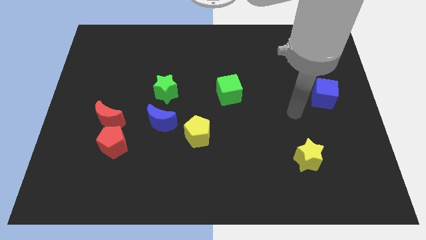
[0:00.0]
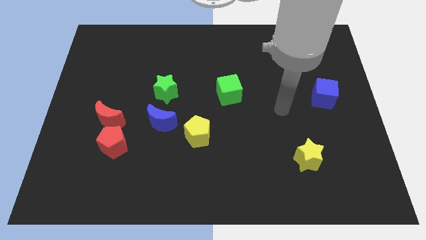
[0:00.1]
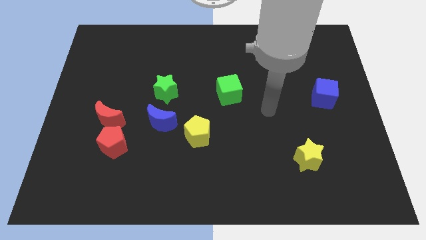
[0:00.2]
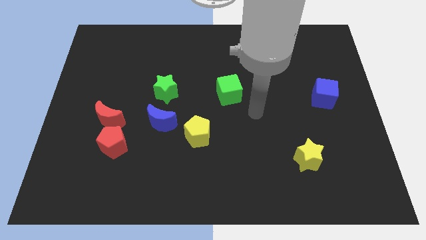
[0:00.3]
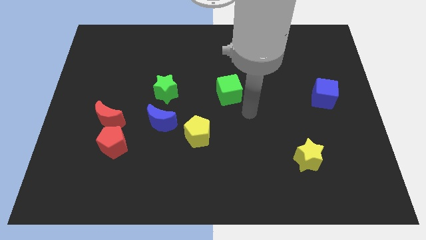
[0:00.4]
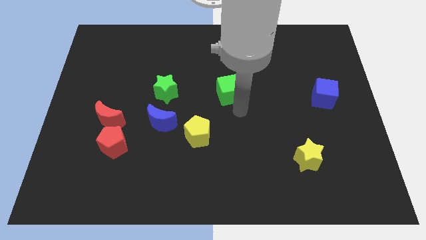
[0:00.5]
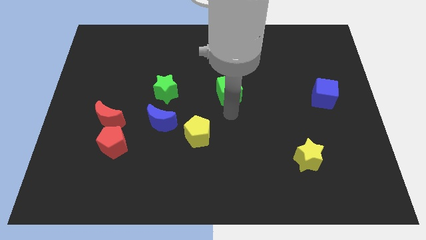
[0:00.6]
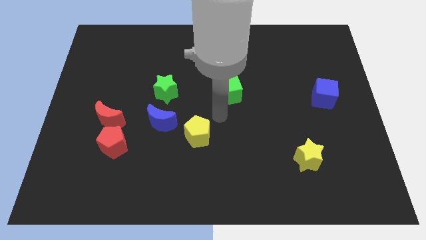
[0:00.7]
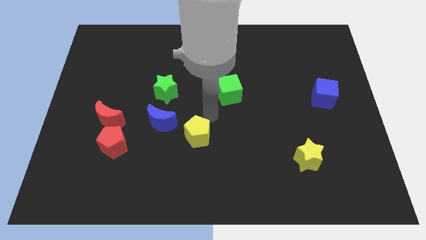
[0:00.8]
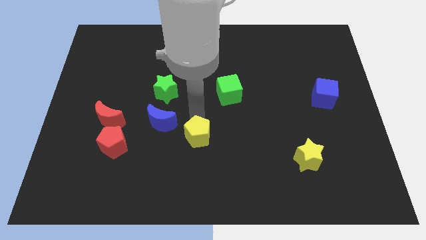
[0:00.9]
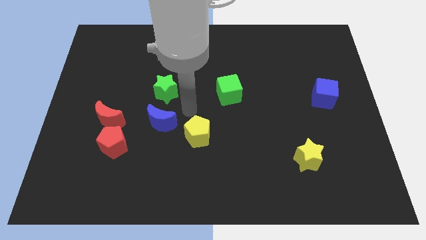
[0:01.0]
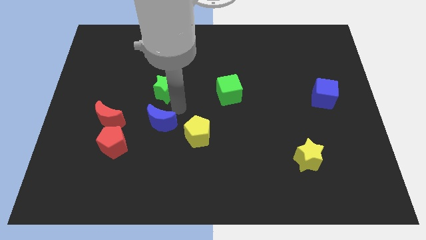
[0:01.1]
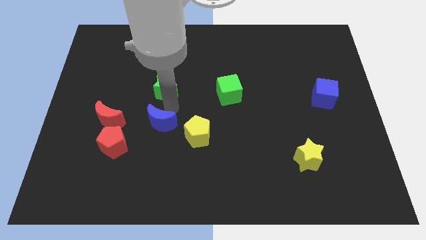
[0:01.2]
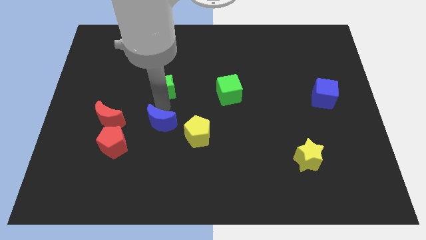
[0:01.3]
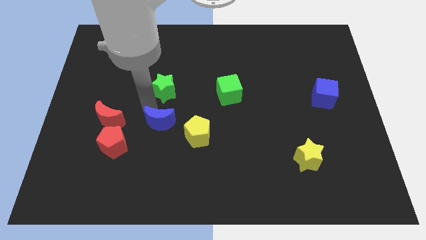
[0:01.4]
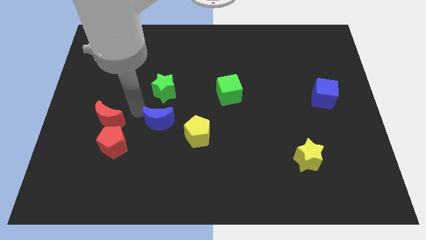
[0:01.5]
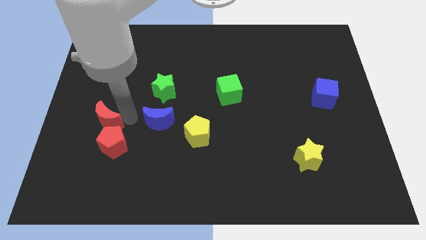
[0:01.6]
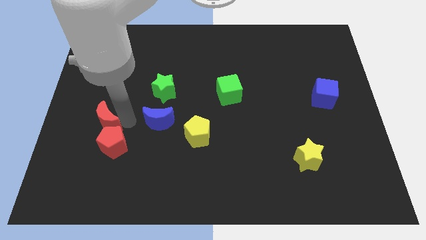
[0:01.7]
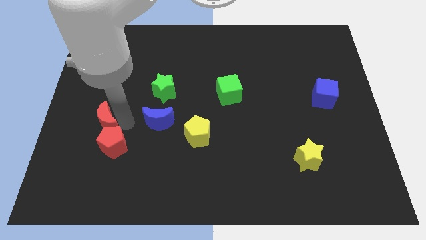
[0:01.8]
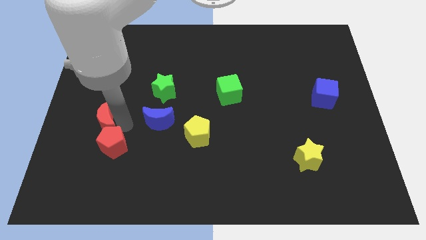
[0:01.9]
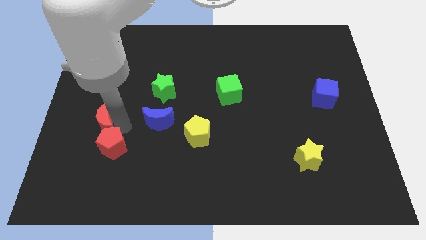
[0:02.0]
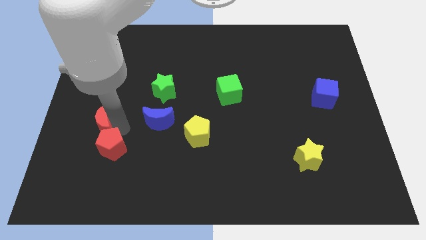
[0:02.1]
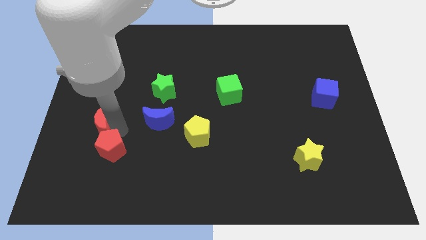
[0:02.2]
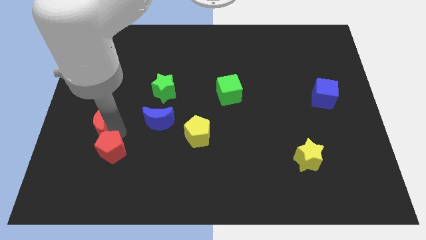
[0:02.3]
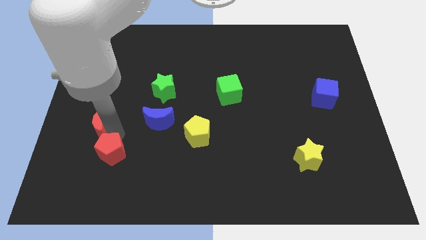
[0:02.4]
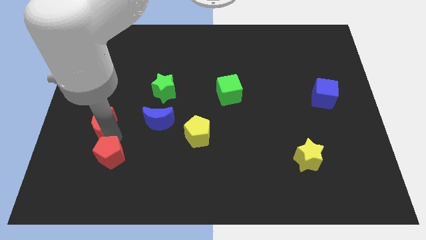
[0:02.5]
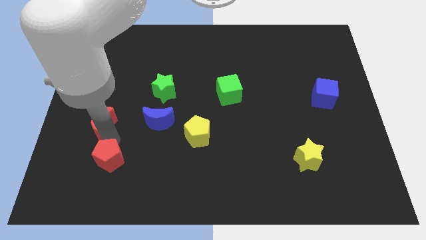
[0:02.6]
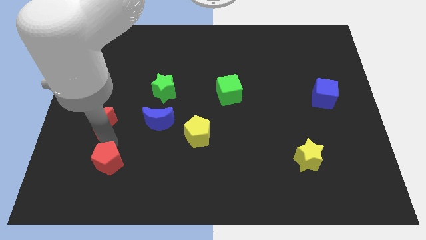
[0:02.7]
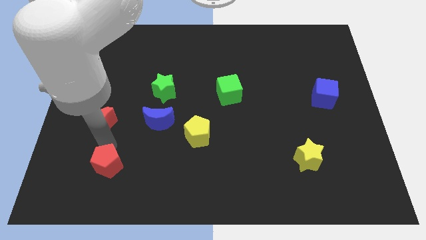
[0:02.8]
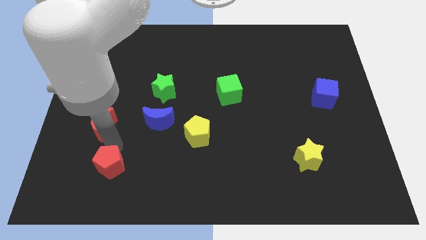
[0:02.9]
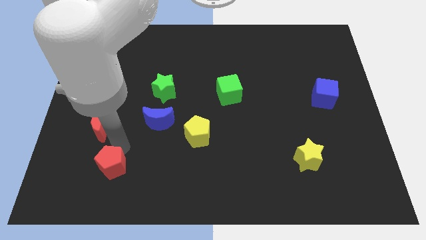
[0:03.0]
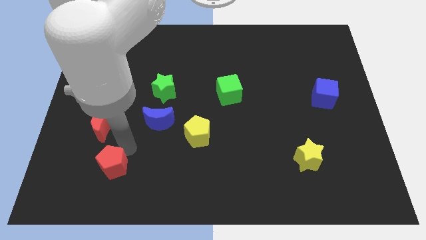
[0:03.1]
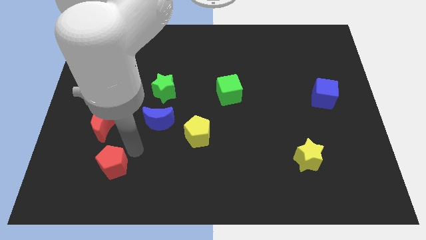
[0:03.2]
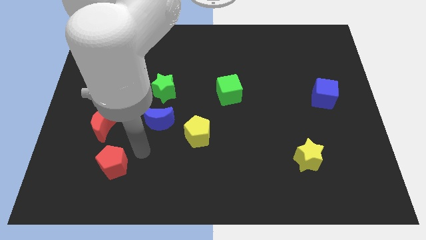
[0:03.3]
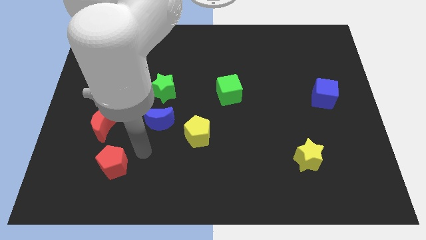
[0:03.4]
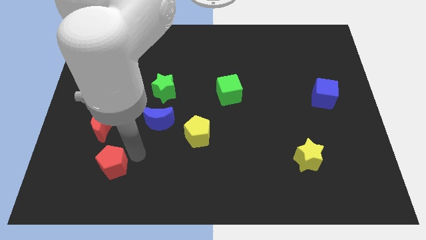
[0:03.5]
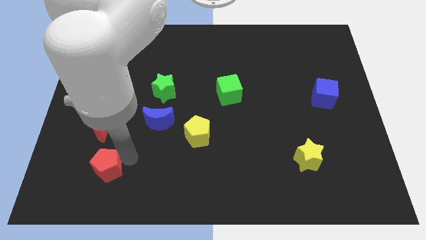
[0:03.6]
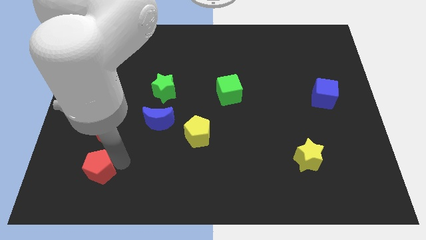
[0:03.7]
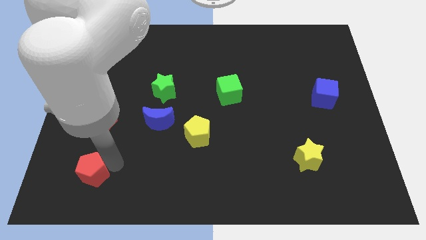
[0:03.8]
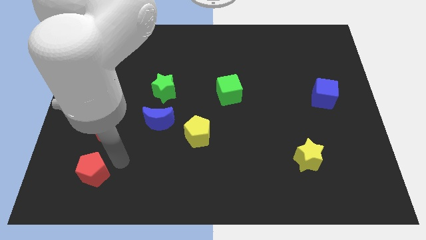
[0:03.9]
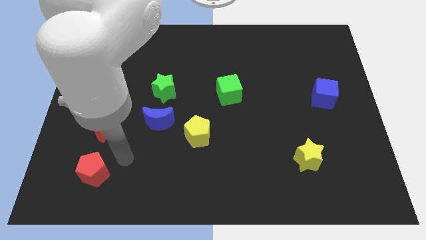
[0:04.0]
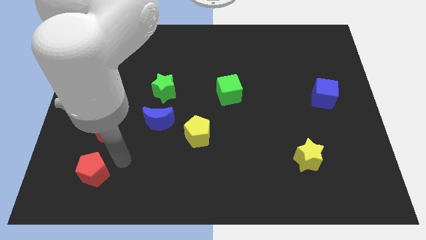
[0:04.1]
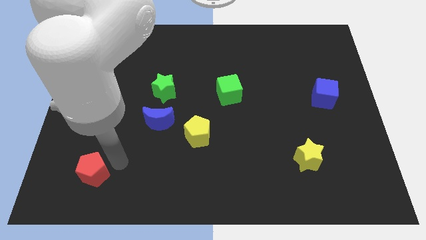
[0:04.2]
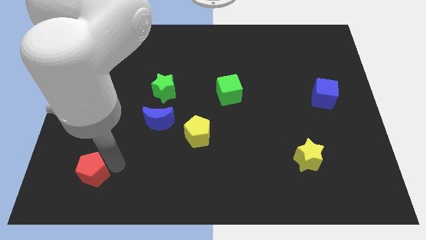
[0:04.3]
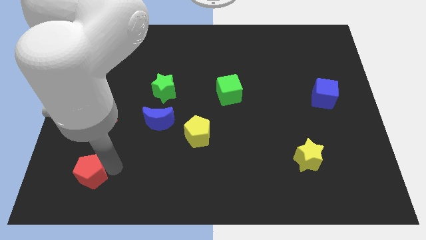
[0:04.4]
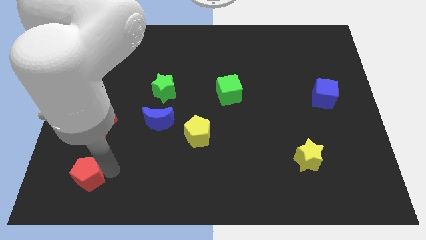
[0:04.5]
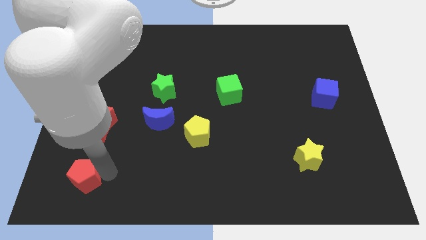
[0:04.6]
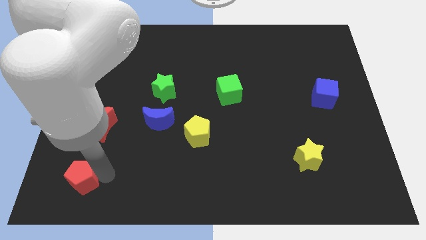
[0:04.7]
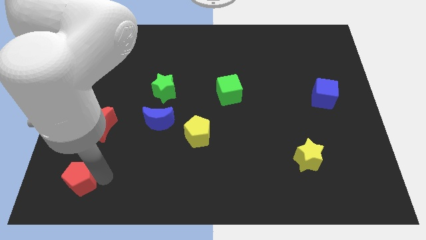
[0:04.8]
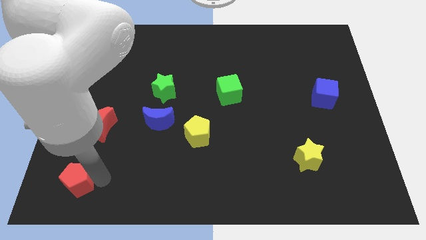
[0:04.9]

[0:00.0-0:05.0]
move the red pentagon to the lower left corner

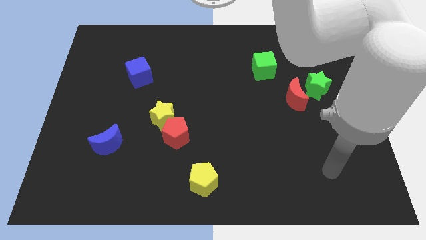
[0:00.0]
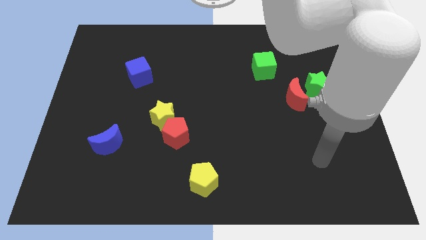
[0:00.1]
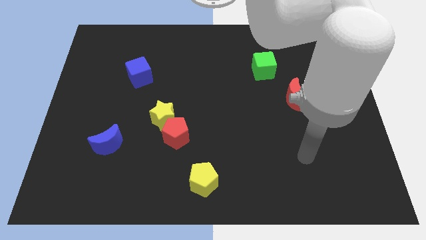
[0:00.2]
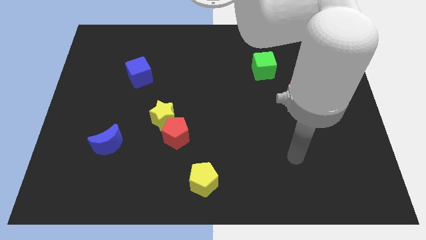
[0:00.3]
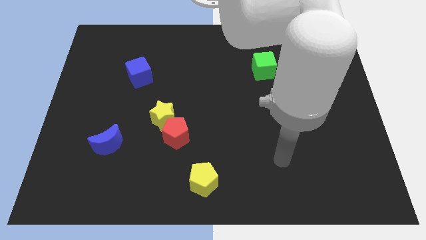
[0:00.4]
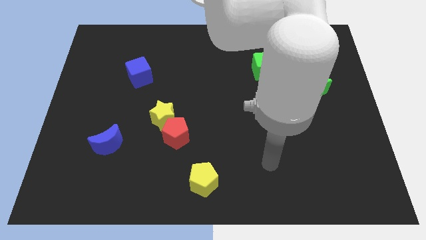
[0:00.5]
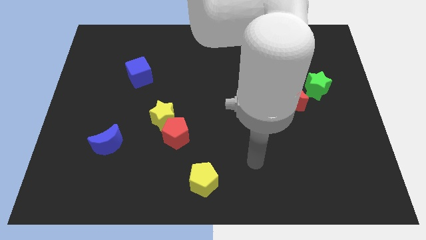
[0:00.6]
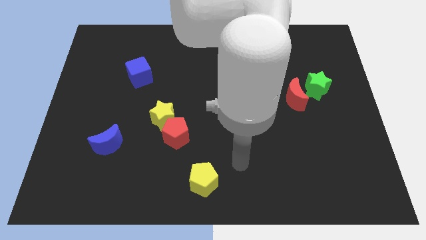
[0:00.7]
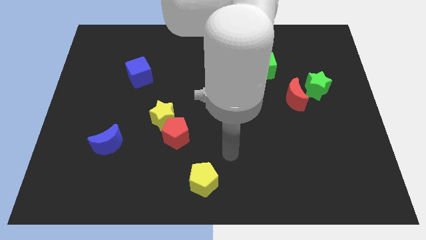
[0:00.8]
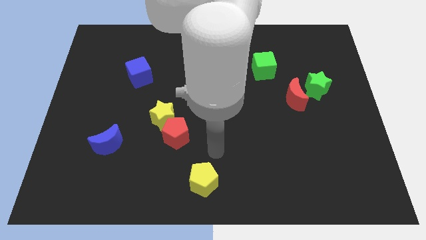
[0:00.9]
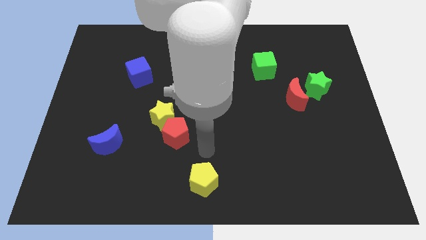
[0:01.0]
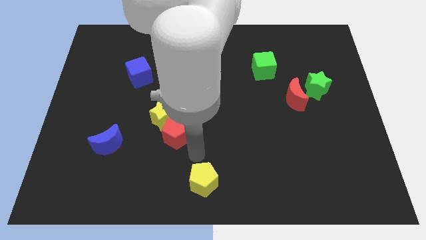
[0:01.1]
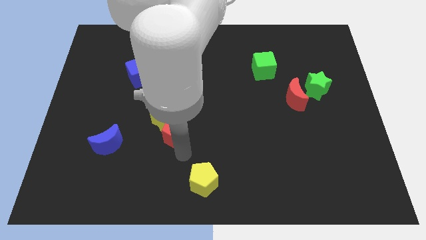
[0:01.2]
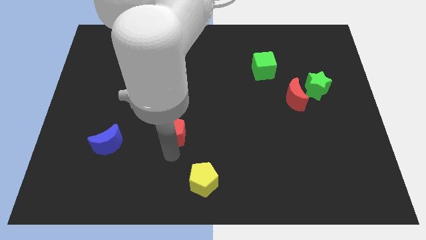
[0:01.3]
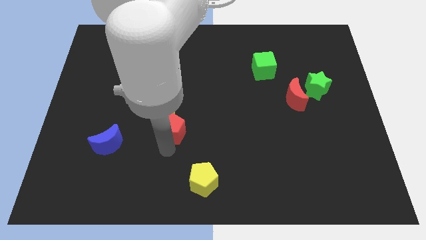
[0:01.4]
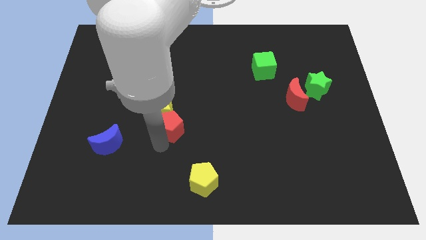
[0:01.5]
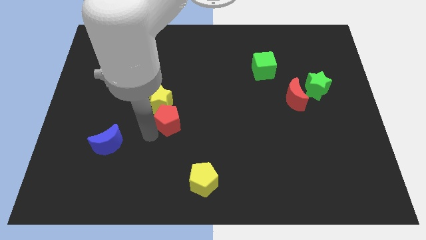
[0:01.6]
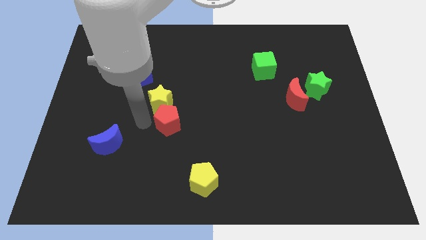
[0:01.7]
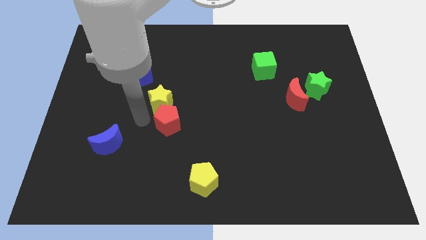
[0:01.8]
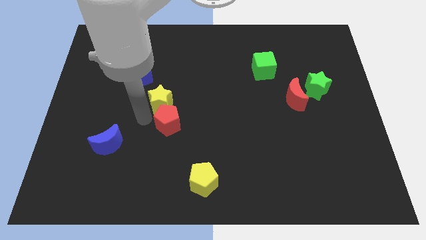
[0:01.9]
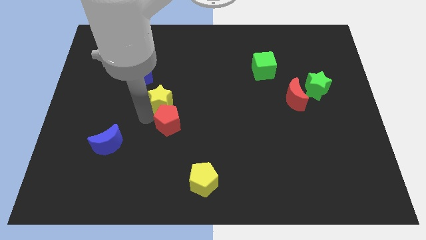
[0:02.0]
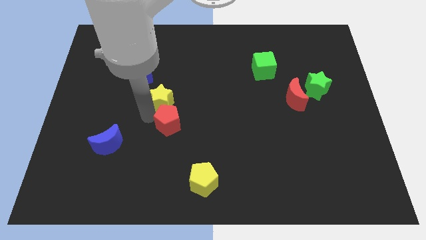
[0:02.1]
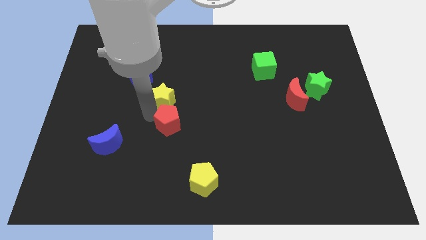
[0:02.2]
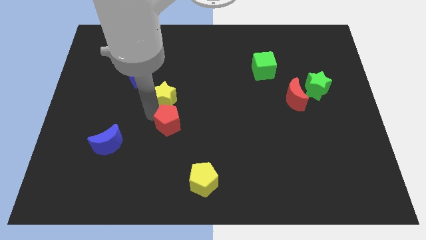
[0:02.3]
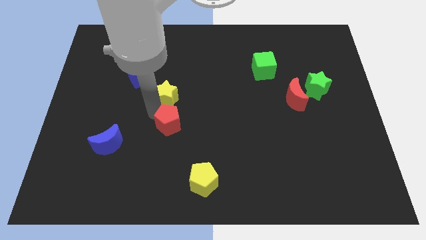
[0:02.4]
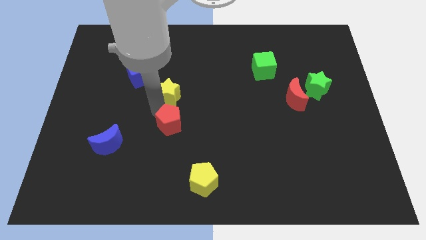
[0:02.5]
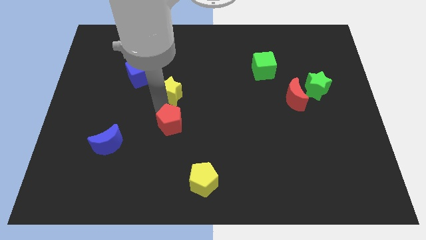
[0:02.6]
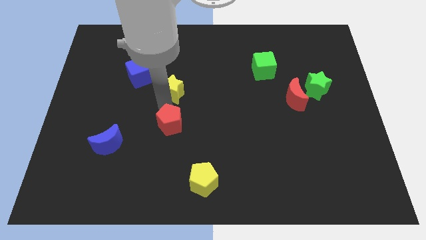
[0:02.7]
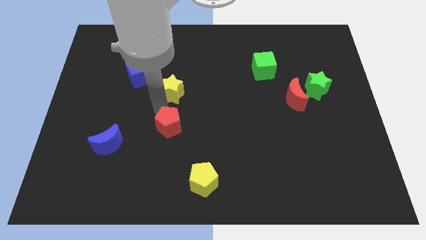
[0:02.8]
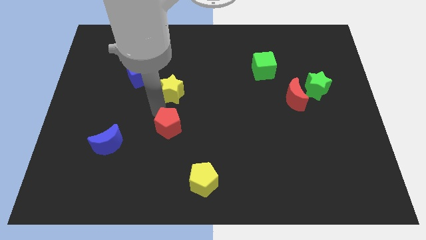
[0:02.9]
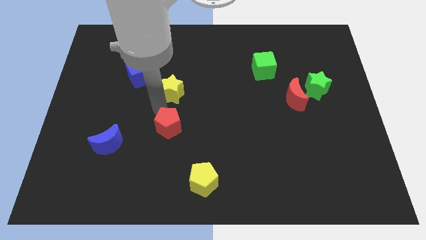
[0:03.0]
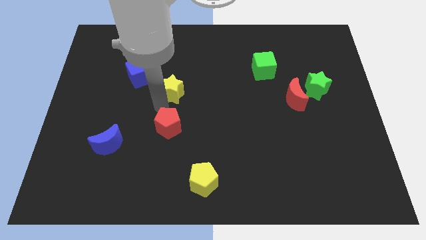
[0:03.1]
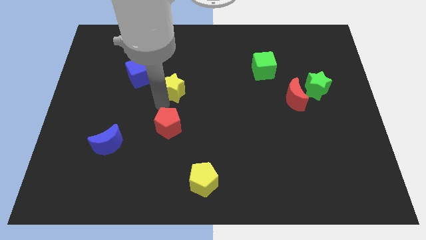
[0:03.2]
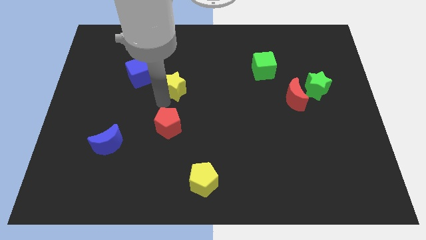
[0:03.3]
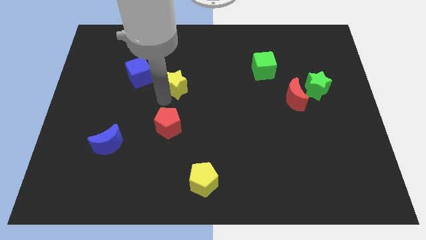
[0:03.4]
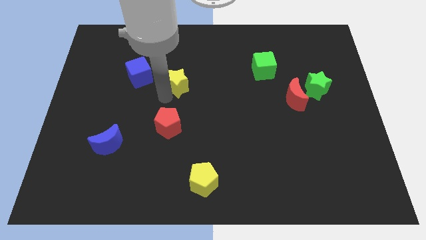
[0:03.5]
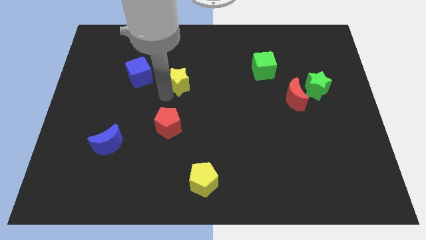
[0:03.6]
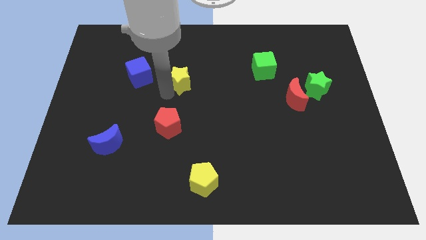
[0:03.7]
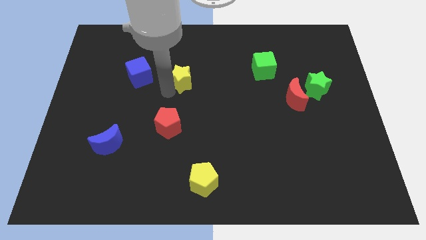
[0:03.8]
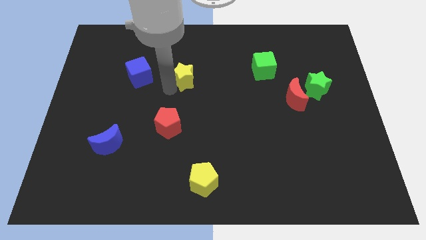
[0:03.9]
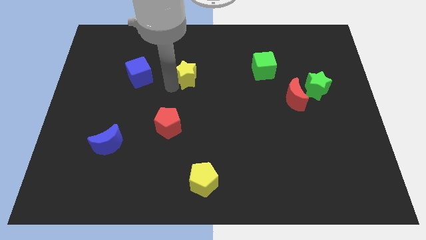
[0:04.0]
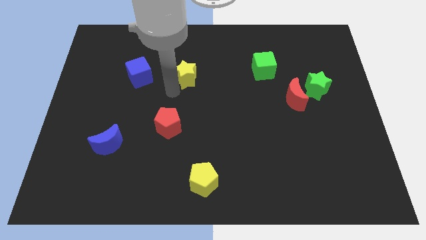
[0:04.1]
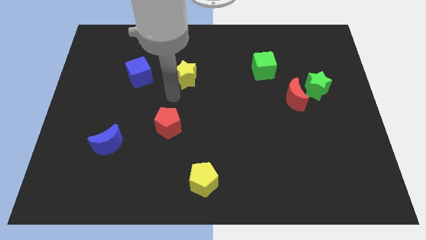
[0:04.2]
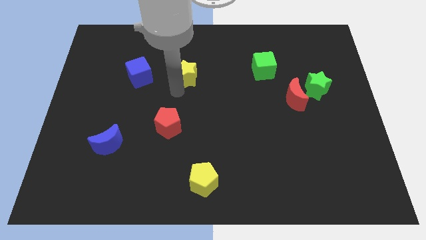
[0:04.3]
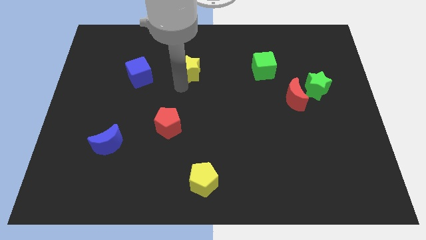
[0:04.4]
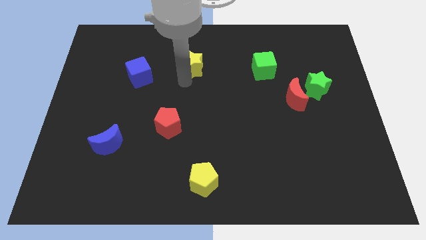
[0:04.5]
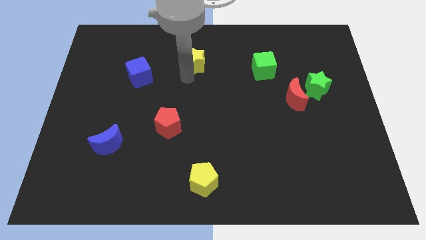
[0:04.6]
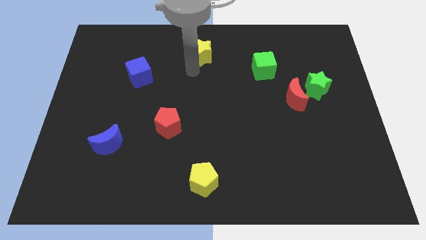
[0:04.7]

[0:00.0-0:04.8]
put the yellow star to the top side
